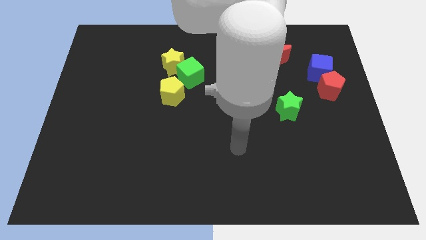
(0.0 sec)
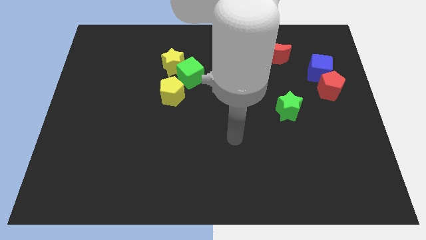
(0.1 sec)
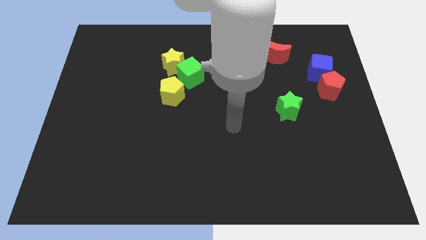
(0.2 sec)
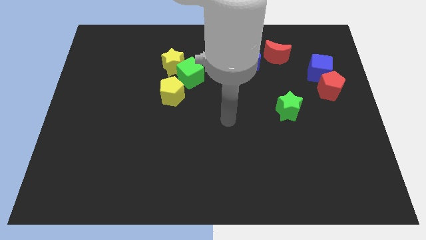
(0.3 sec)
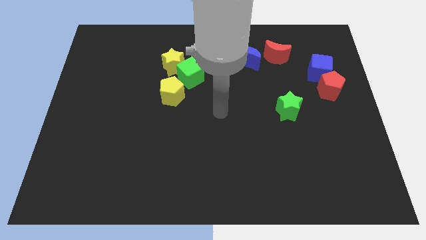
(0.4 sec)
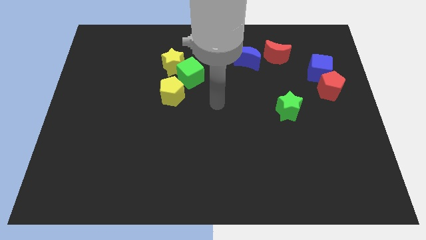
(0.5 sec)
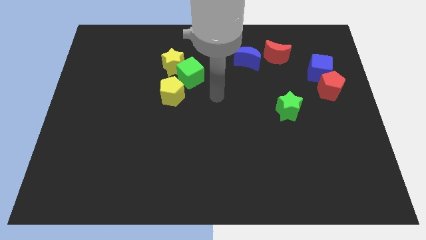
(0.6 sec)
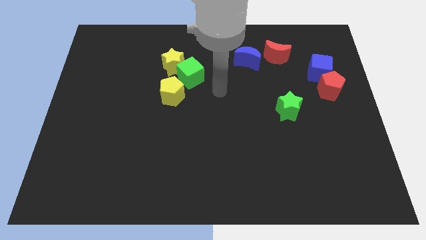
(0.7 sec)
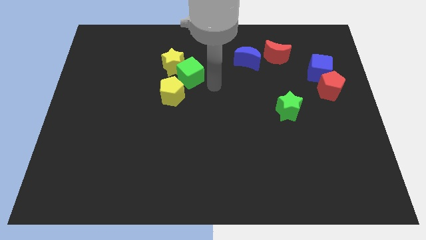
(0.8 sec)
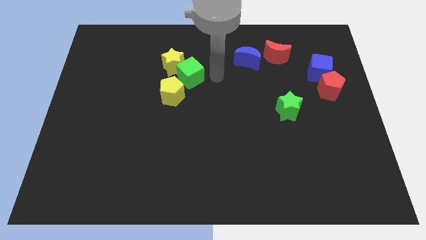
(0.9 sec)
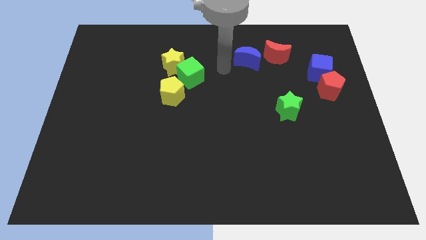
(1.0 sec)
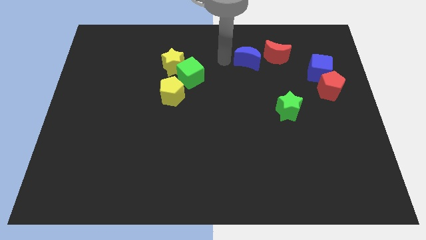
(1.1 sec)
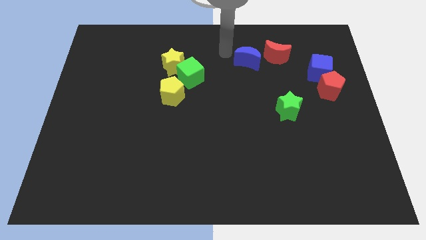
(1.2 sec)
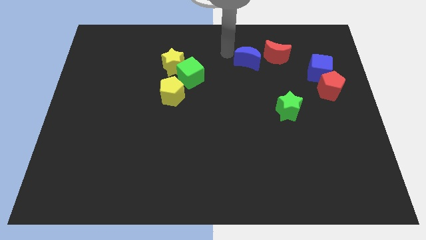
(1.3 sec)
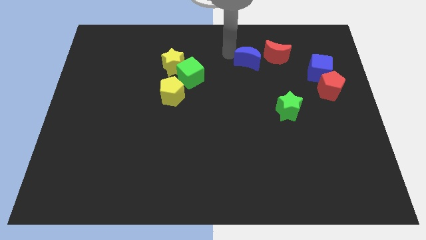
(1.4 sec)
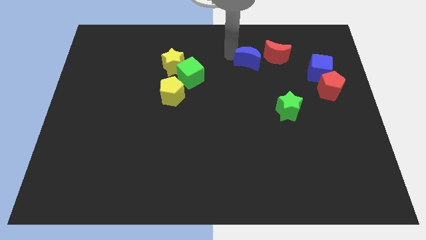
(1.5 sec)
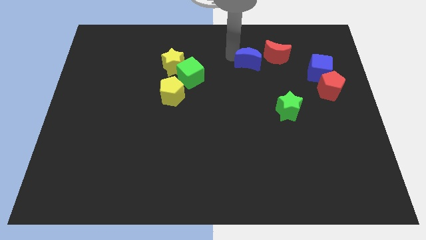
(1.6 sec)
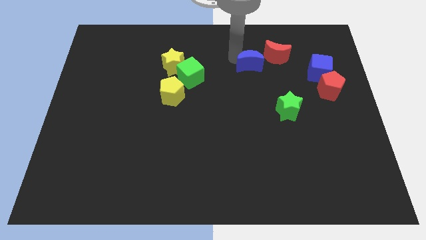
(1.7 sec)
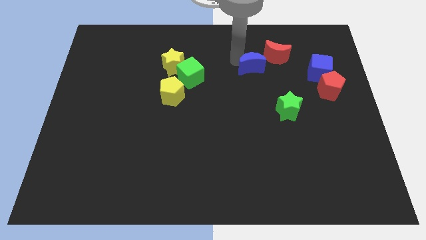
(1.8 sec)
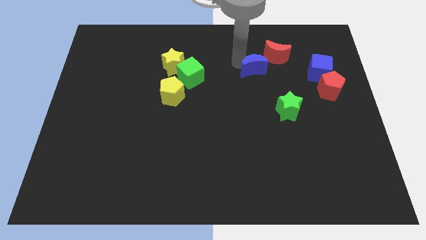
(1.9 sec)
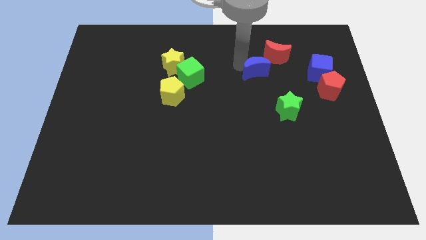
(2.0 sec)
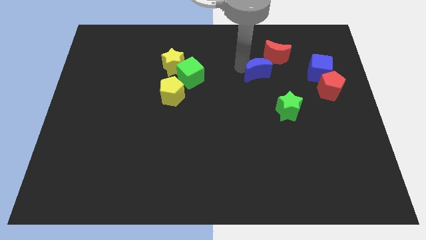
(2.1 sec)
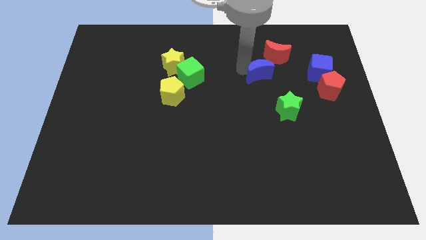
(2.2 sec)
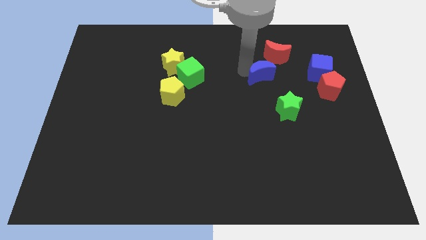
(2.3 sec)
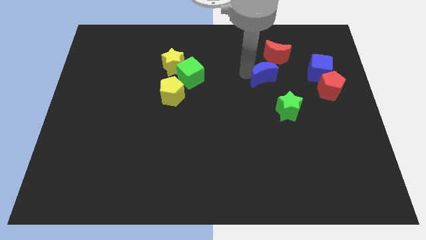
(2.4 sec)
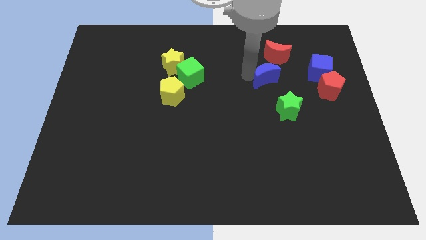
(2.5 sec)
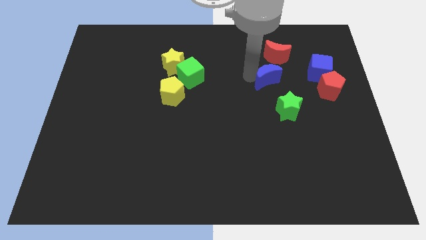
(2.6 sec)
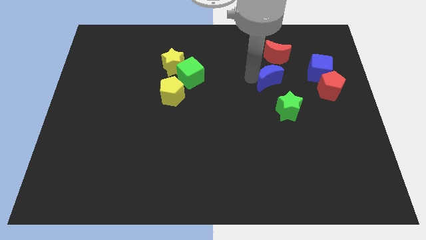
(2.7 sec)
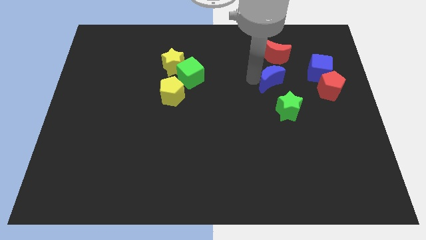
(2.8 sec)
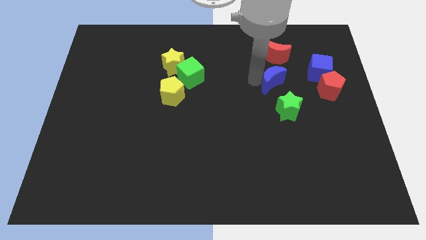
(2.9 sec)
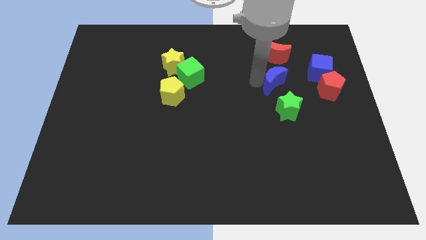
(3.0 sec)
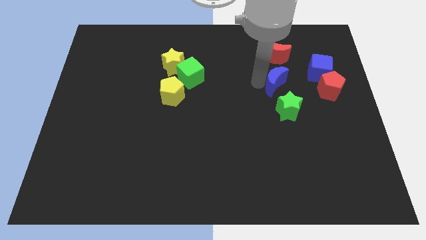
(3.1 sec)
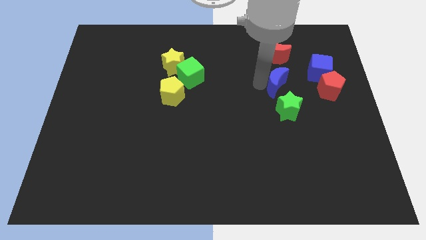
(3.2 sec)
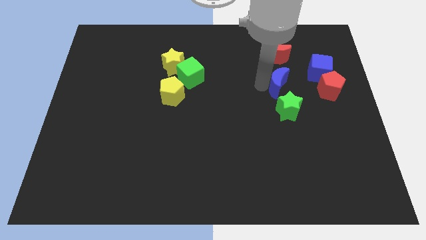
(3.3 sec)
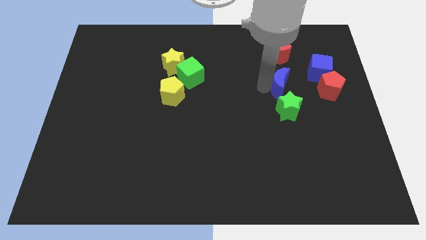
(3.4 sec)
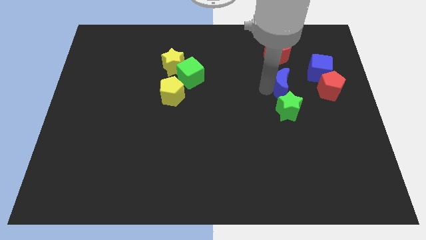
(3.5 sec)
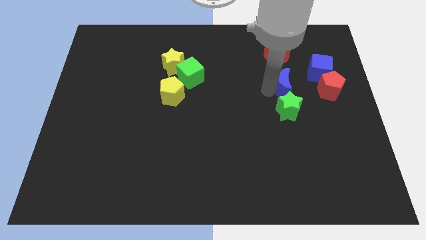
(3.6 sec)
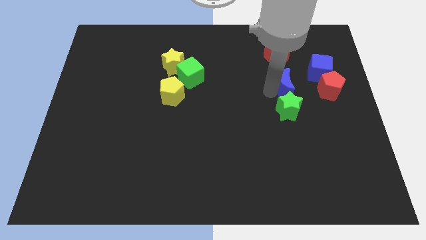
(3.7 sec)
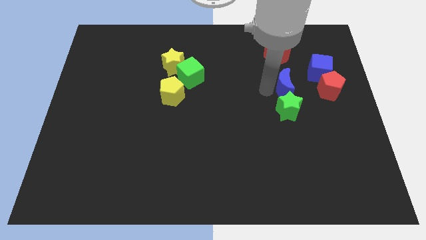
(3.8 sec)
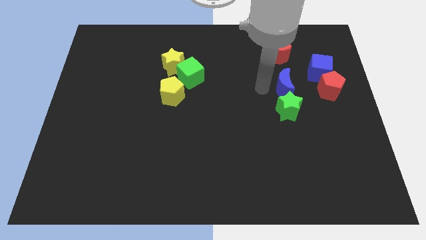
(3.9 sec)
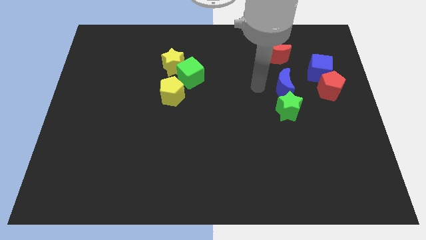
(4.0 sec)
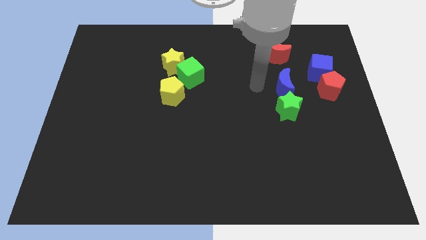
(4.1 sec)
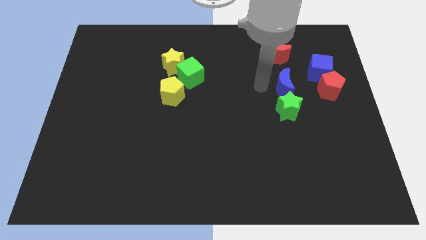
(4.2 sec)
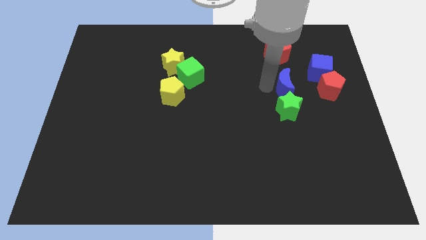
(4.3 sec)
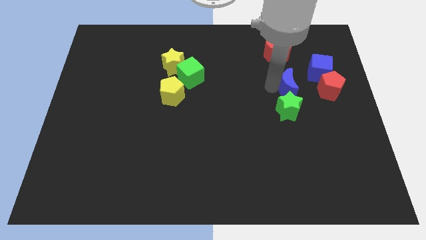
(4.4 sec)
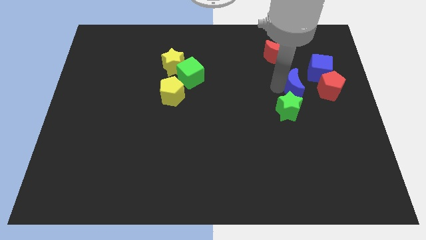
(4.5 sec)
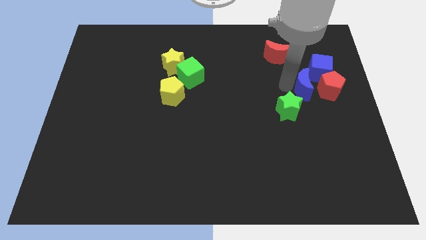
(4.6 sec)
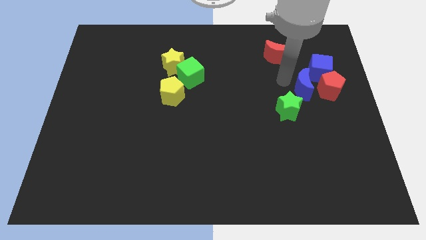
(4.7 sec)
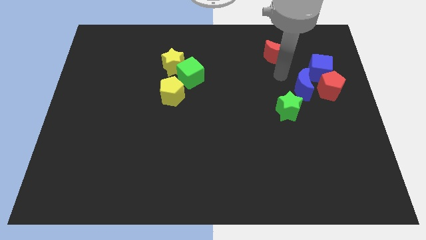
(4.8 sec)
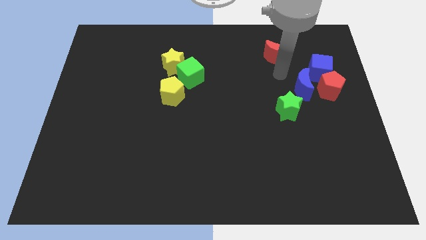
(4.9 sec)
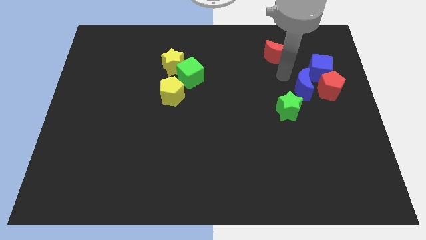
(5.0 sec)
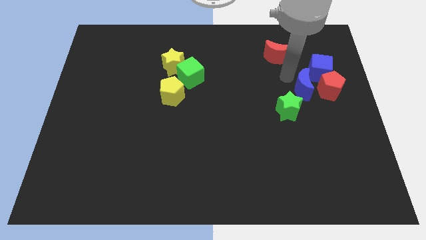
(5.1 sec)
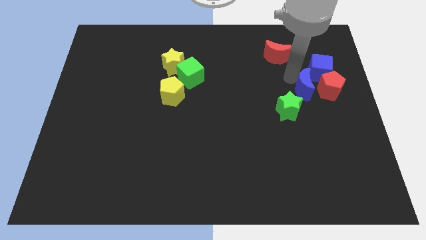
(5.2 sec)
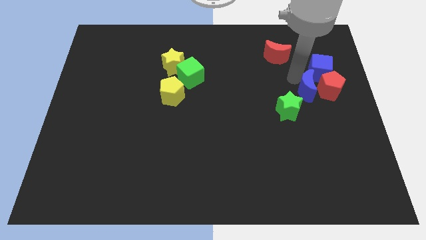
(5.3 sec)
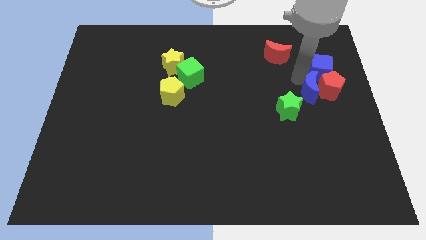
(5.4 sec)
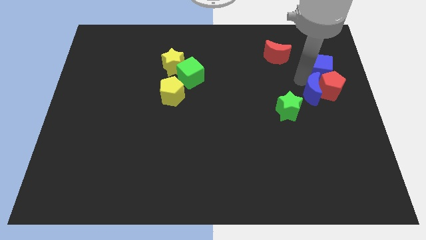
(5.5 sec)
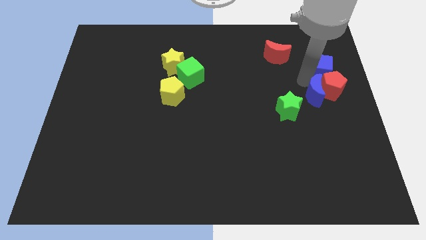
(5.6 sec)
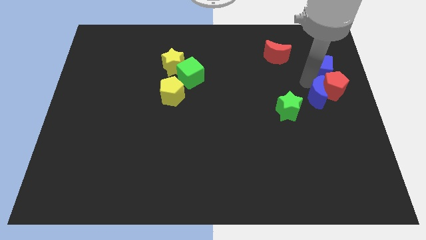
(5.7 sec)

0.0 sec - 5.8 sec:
move the blue moon to the right side of the board

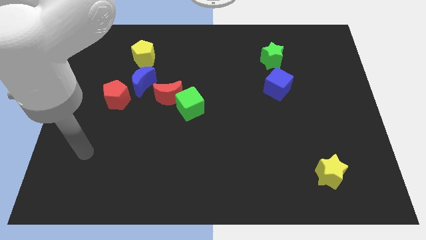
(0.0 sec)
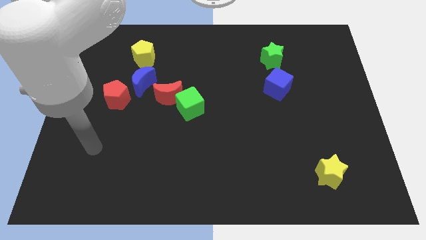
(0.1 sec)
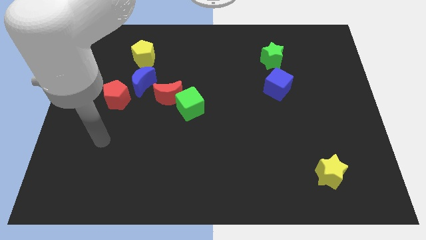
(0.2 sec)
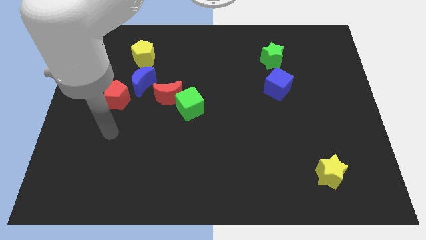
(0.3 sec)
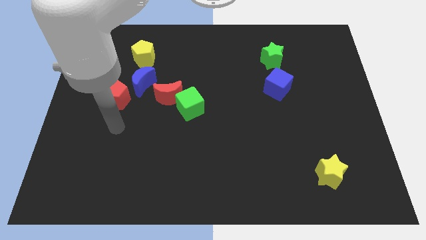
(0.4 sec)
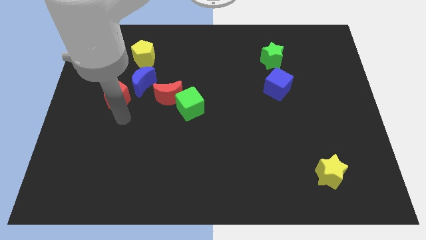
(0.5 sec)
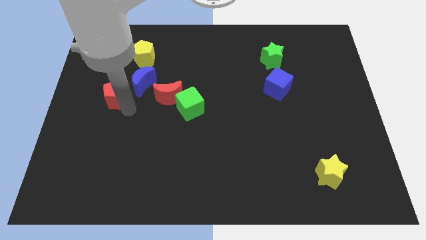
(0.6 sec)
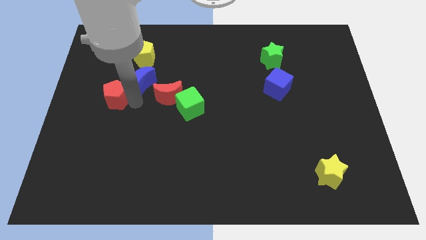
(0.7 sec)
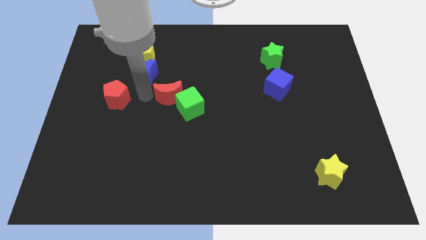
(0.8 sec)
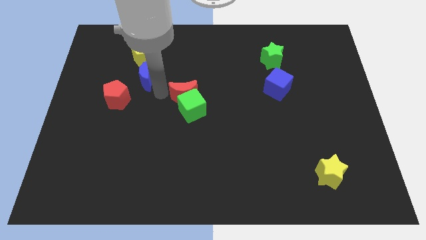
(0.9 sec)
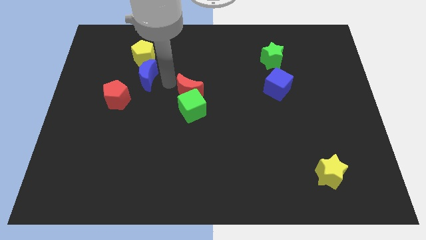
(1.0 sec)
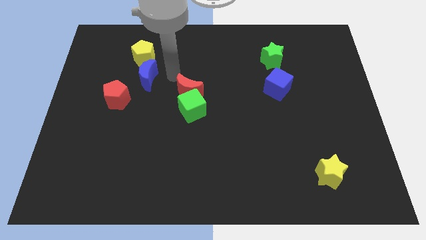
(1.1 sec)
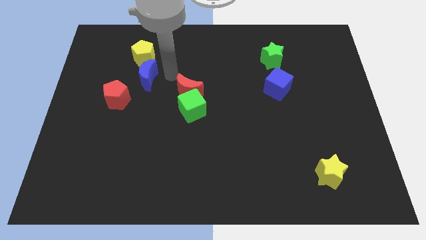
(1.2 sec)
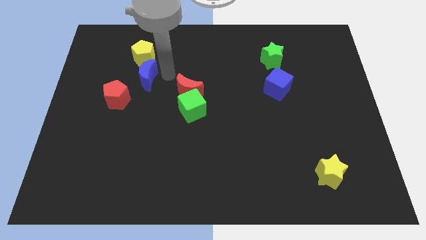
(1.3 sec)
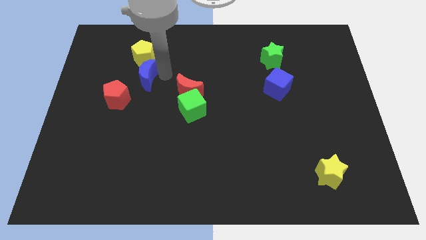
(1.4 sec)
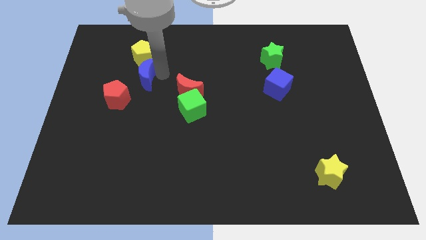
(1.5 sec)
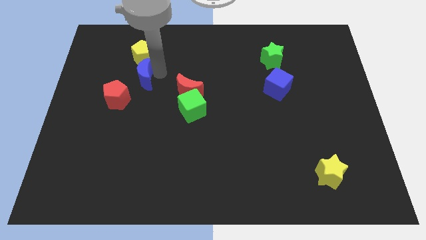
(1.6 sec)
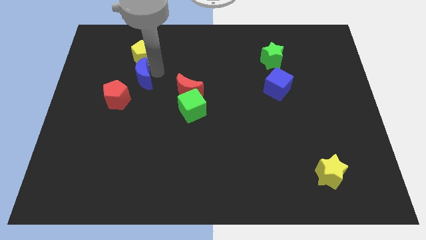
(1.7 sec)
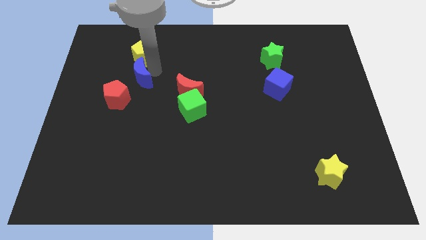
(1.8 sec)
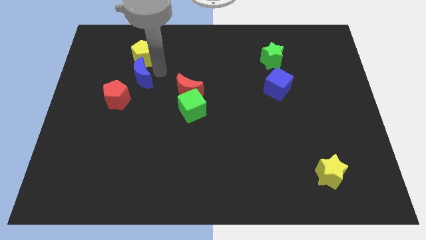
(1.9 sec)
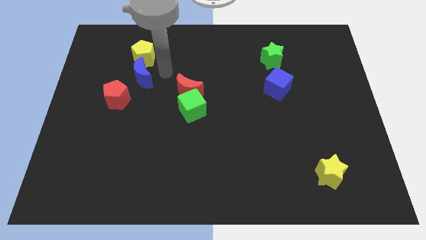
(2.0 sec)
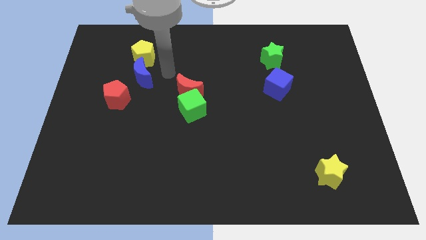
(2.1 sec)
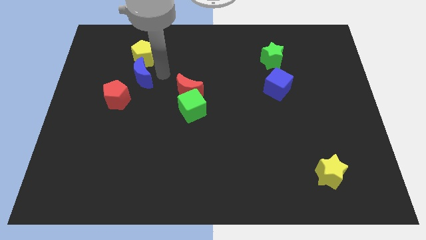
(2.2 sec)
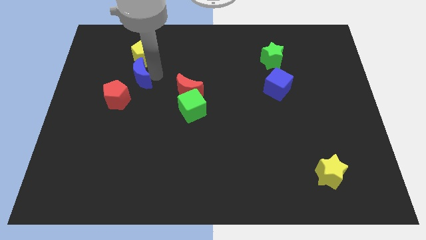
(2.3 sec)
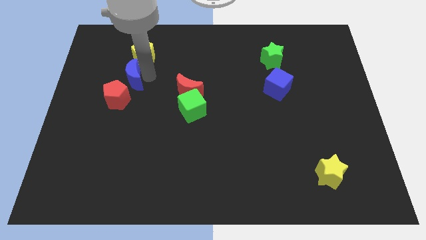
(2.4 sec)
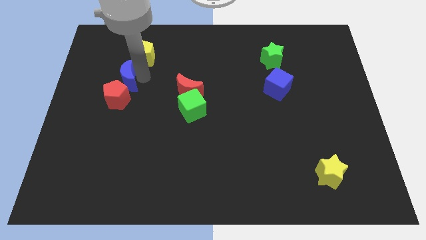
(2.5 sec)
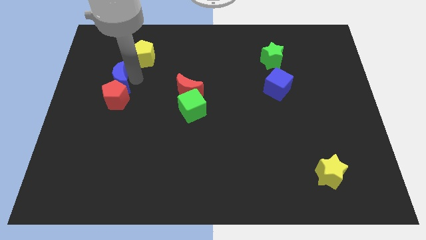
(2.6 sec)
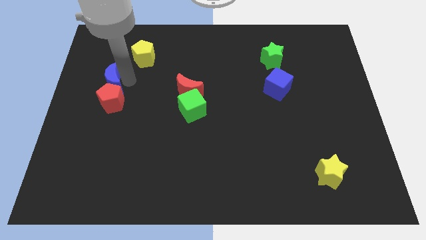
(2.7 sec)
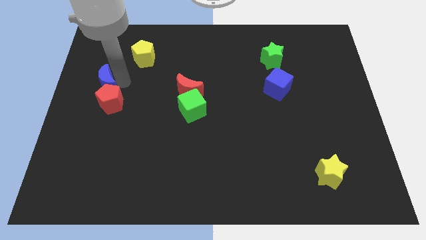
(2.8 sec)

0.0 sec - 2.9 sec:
push the blue moon to the left side of the board
